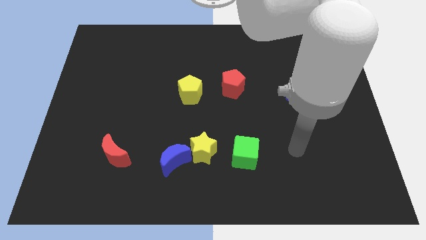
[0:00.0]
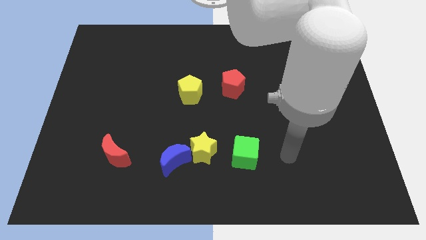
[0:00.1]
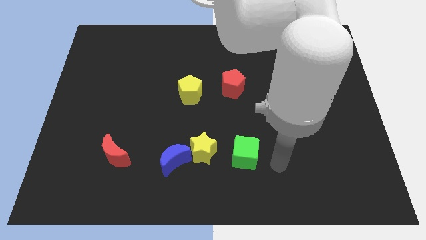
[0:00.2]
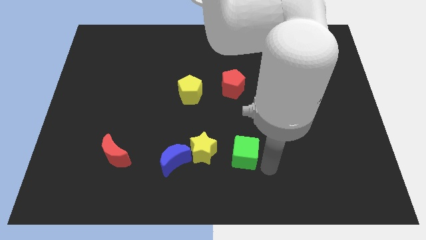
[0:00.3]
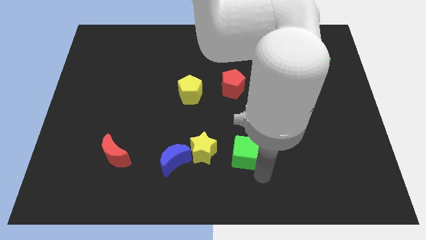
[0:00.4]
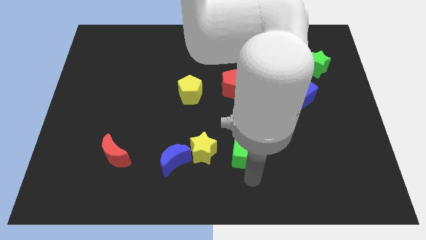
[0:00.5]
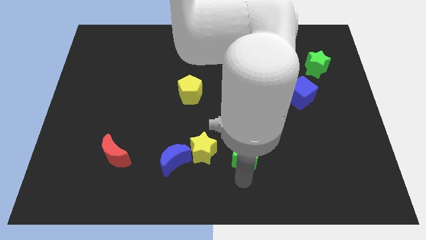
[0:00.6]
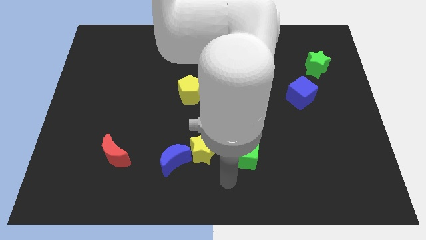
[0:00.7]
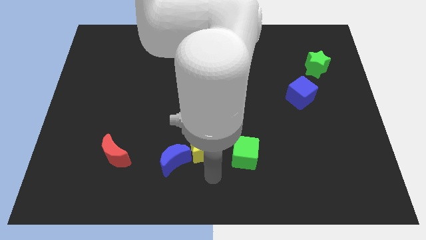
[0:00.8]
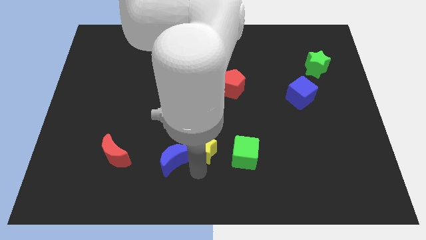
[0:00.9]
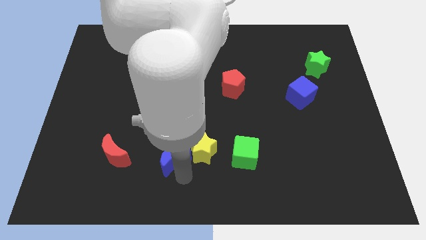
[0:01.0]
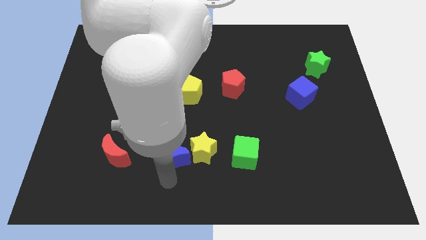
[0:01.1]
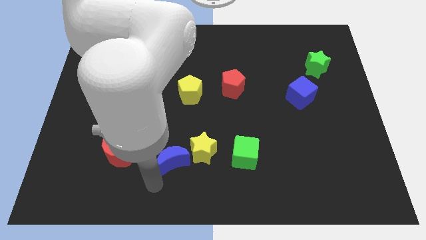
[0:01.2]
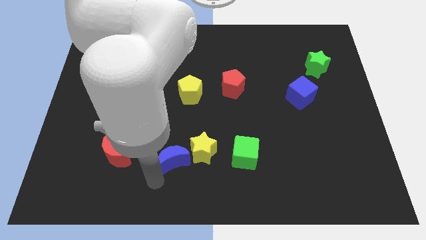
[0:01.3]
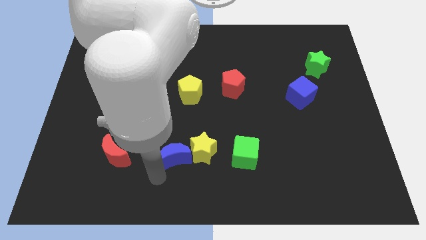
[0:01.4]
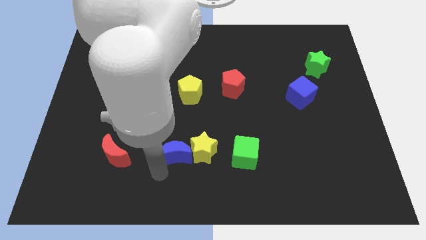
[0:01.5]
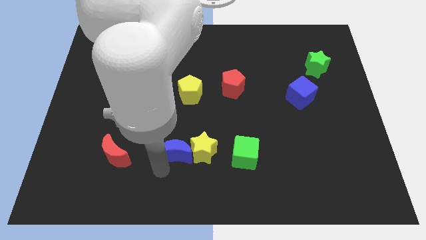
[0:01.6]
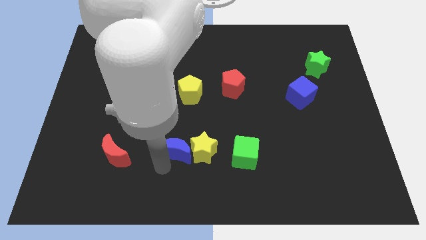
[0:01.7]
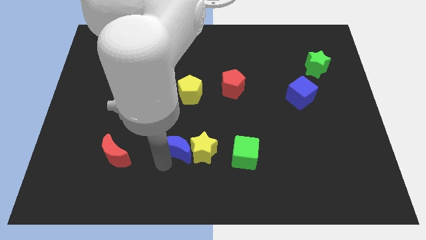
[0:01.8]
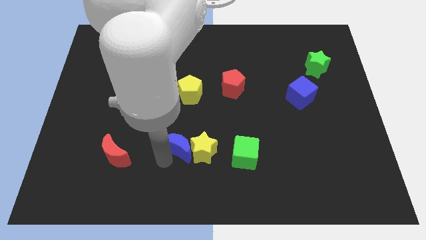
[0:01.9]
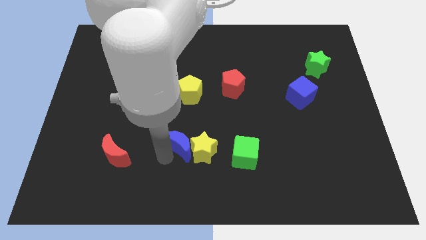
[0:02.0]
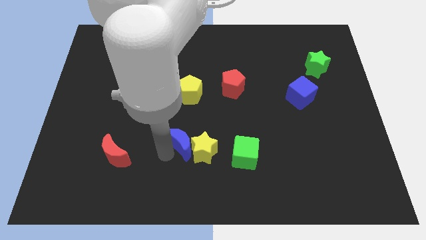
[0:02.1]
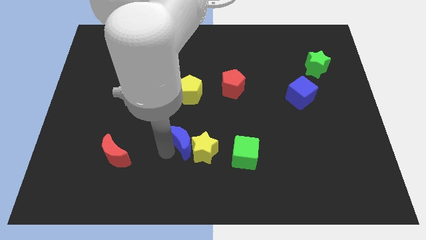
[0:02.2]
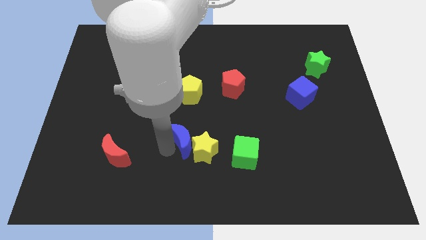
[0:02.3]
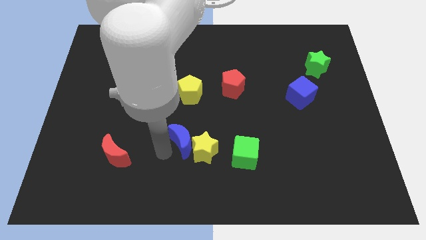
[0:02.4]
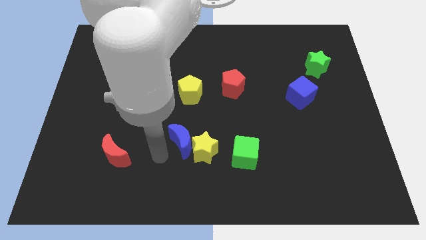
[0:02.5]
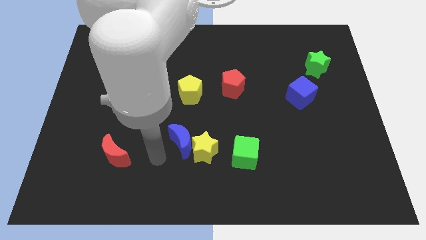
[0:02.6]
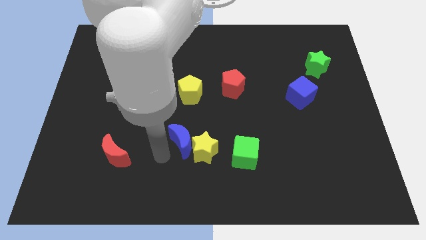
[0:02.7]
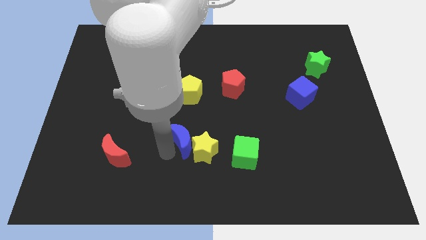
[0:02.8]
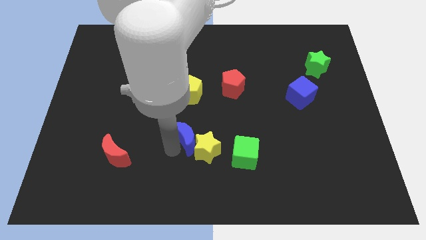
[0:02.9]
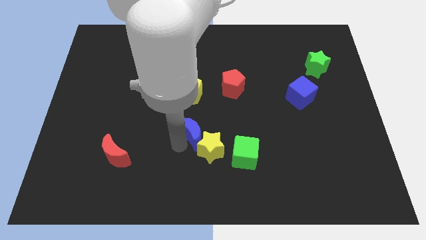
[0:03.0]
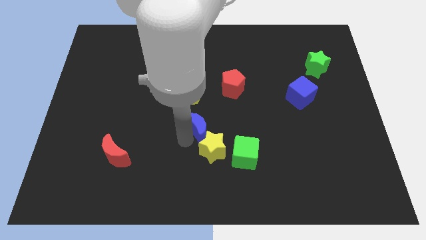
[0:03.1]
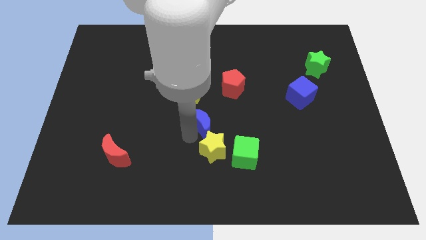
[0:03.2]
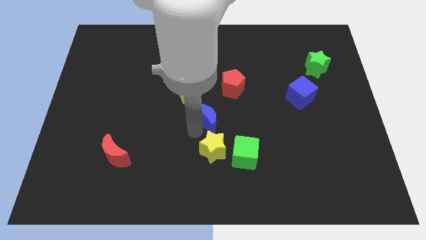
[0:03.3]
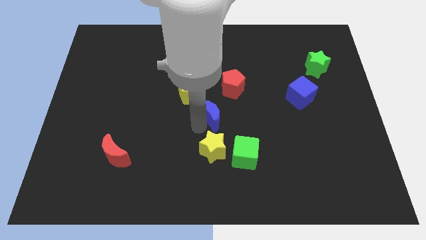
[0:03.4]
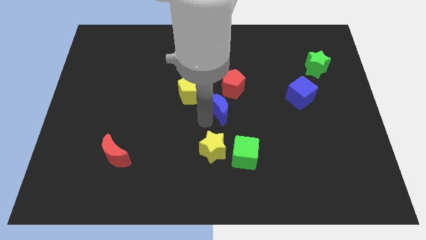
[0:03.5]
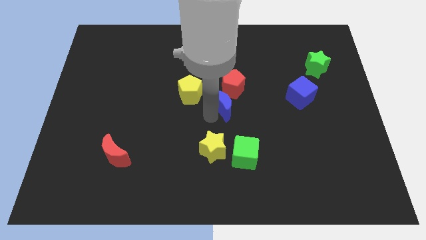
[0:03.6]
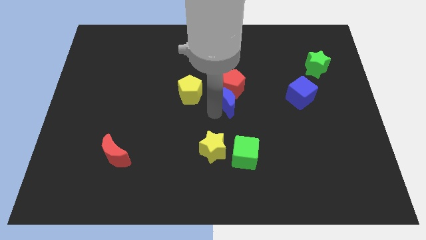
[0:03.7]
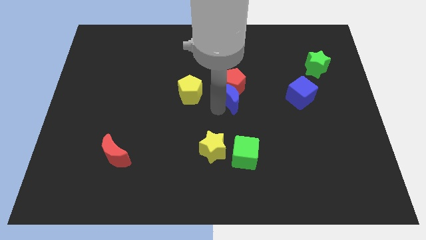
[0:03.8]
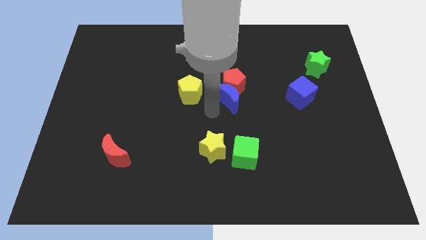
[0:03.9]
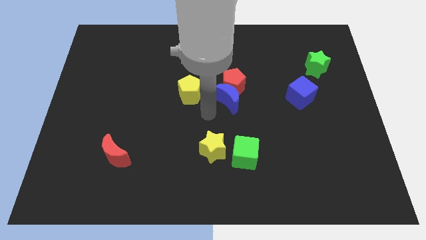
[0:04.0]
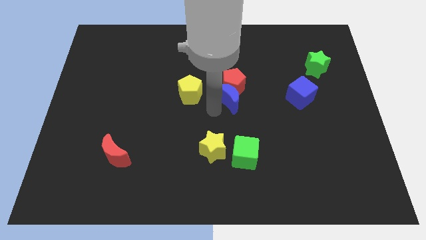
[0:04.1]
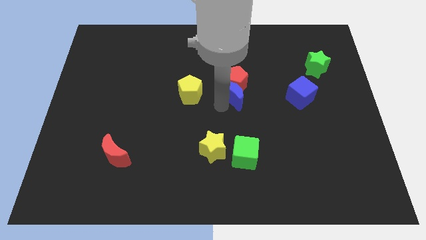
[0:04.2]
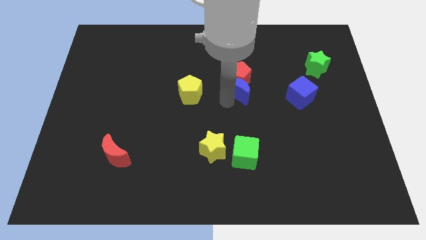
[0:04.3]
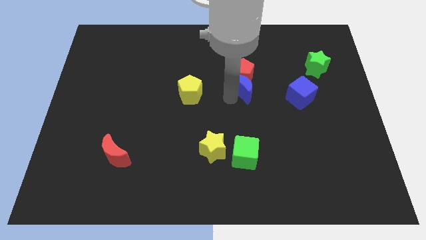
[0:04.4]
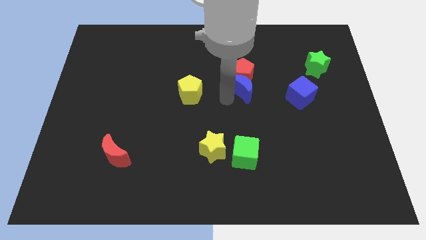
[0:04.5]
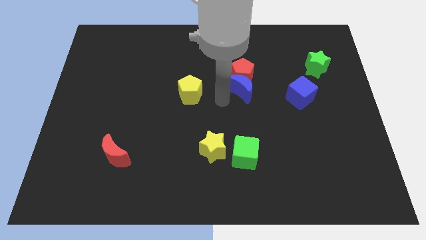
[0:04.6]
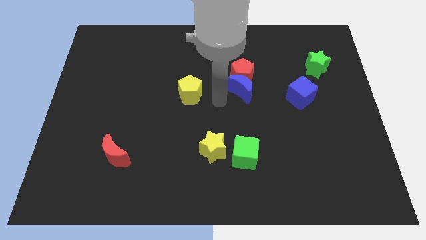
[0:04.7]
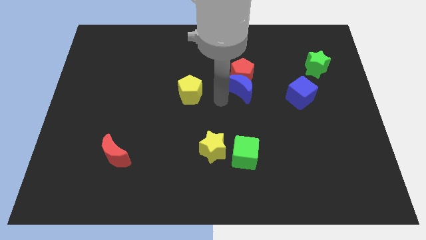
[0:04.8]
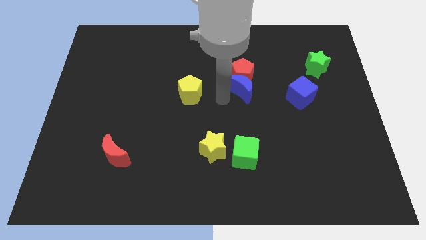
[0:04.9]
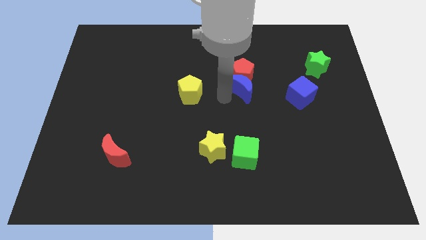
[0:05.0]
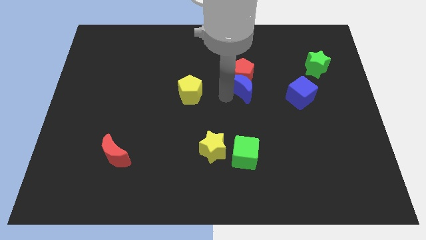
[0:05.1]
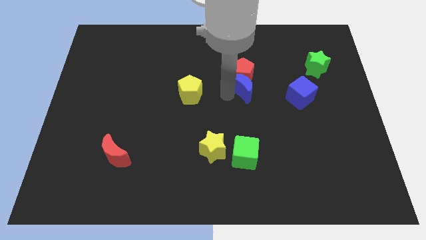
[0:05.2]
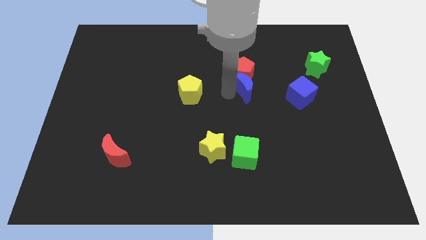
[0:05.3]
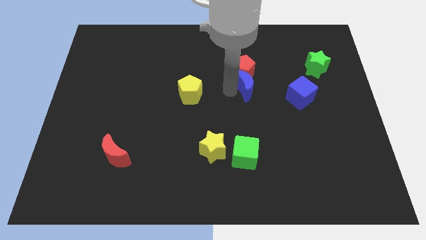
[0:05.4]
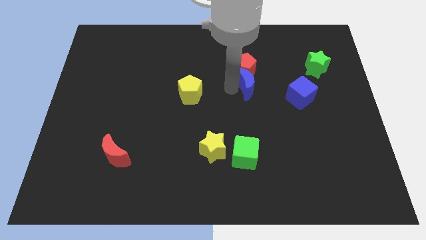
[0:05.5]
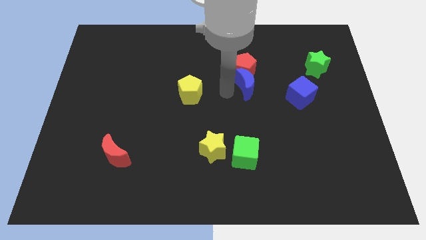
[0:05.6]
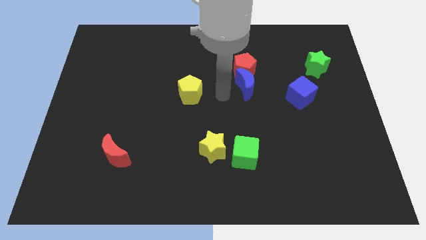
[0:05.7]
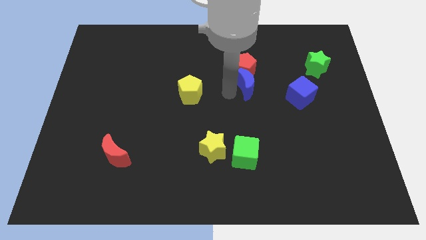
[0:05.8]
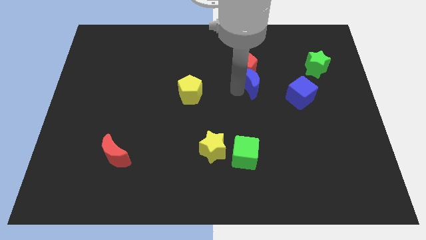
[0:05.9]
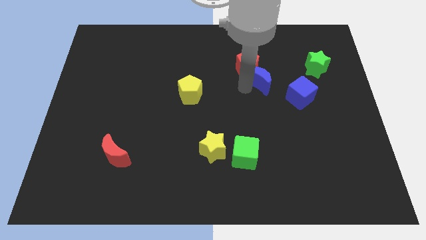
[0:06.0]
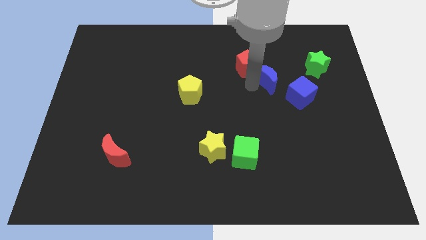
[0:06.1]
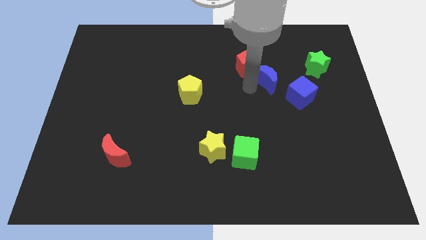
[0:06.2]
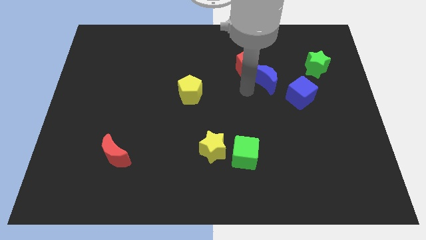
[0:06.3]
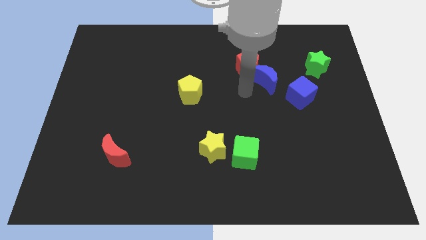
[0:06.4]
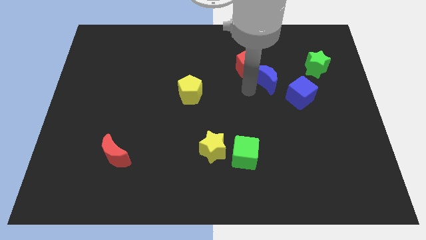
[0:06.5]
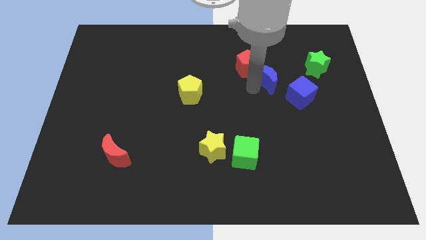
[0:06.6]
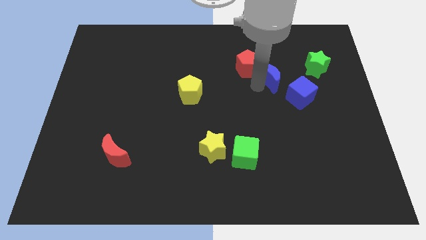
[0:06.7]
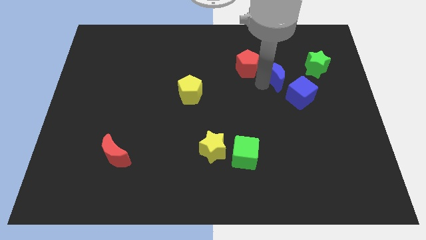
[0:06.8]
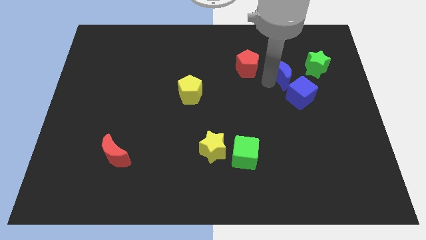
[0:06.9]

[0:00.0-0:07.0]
slide the blue moon above the blue cube
